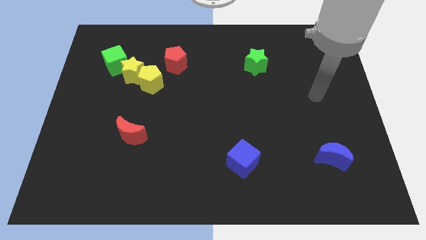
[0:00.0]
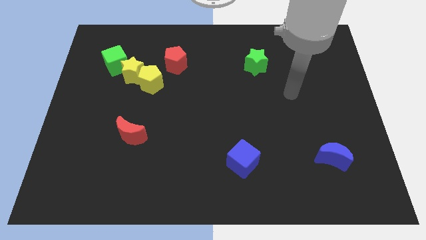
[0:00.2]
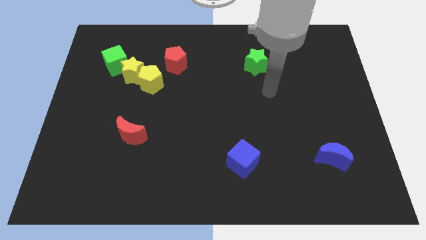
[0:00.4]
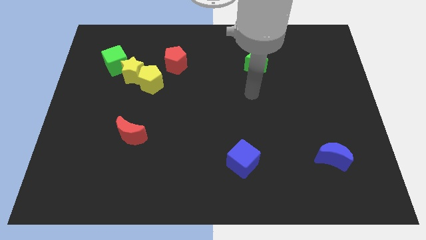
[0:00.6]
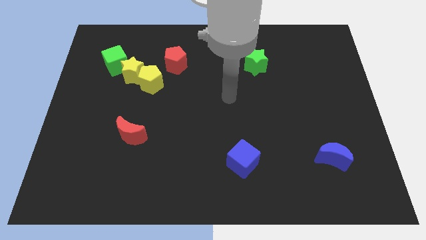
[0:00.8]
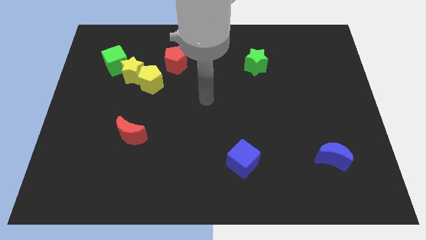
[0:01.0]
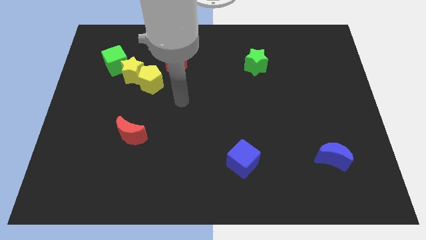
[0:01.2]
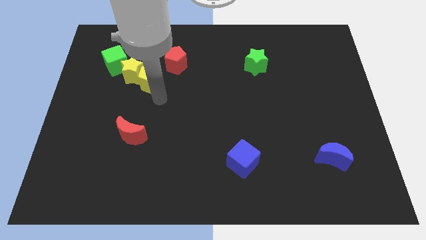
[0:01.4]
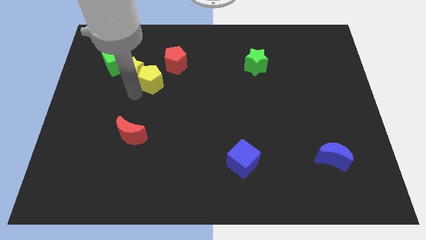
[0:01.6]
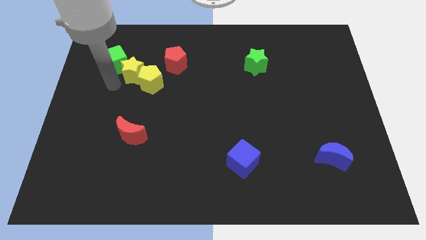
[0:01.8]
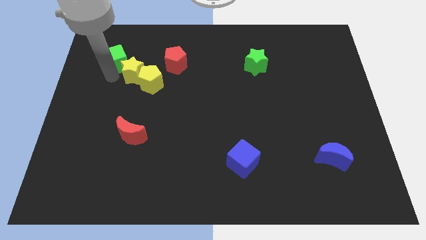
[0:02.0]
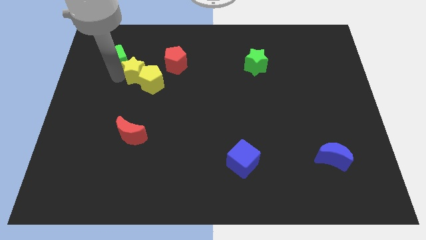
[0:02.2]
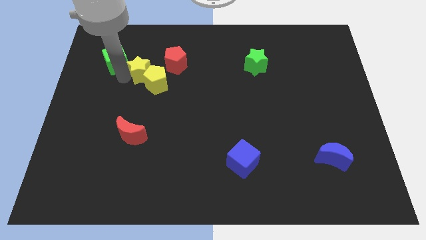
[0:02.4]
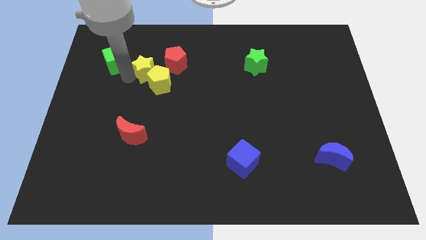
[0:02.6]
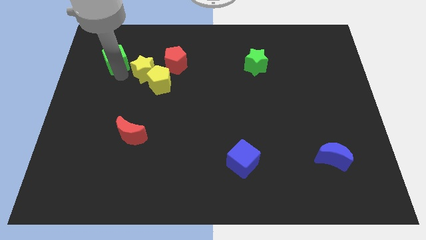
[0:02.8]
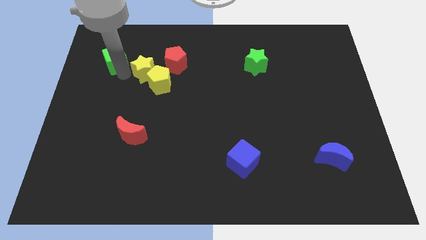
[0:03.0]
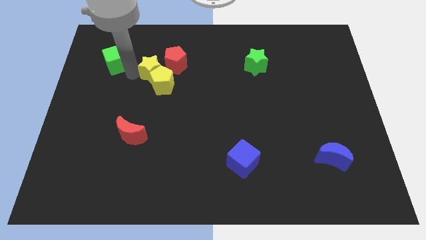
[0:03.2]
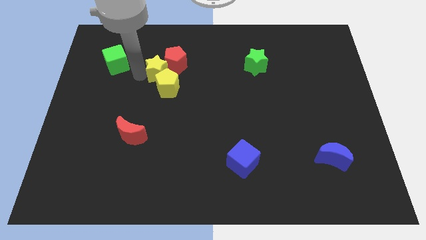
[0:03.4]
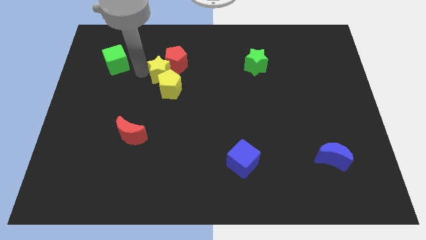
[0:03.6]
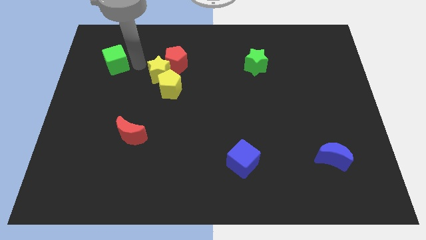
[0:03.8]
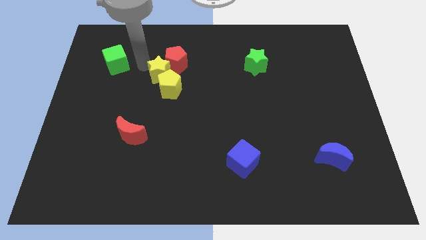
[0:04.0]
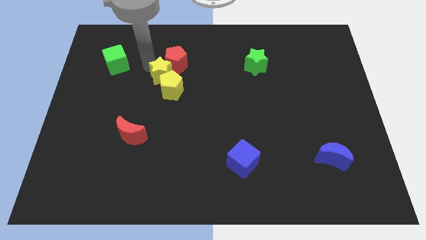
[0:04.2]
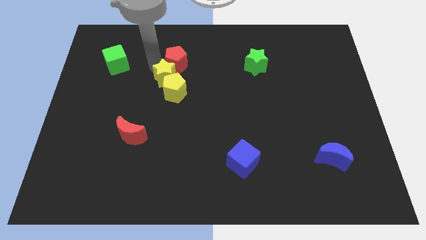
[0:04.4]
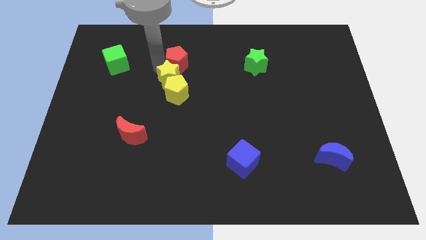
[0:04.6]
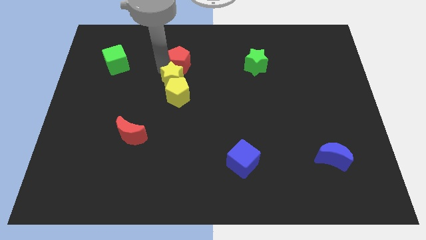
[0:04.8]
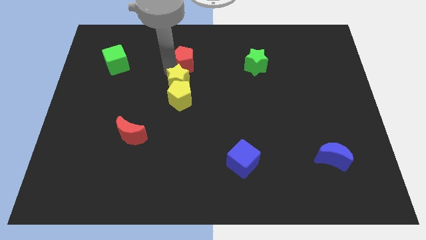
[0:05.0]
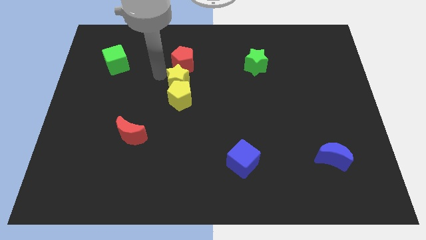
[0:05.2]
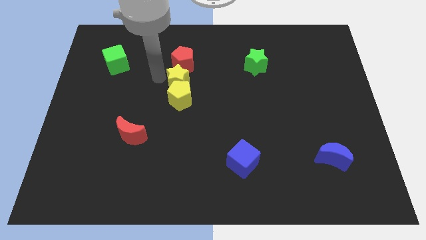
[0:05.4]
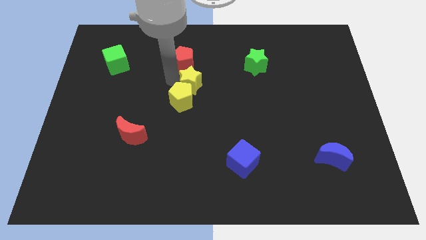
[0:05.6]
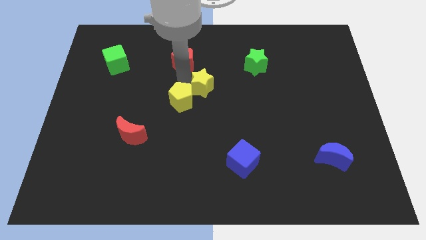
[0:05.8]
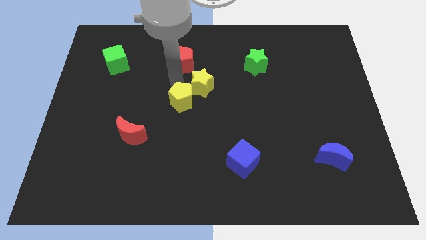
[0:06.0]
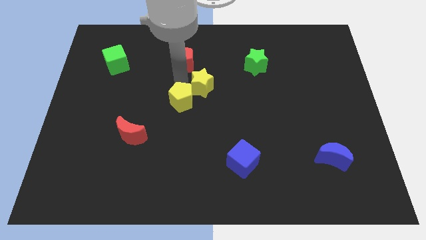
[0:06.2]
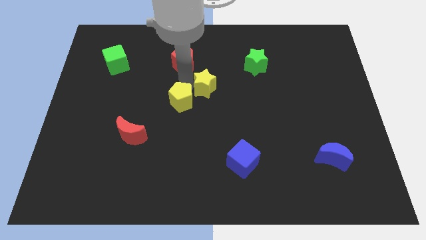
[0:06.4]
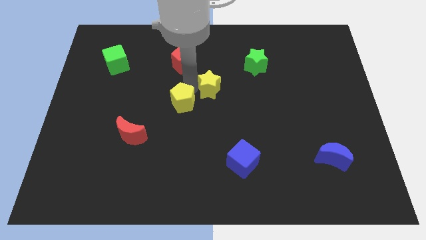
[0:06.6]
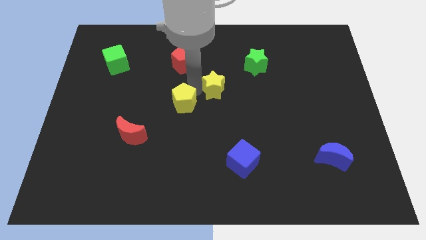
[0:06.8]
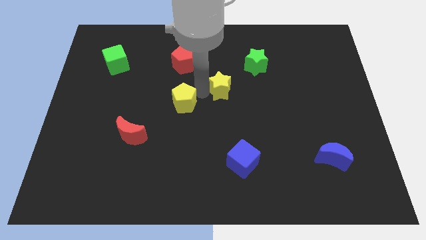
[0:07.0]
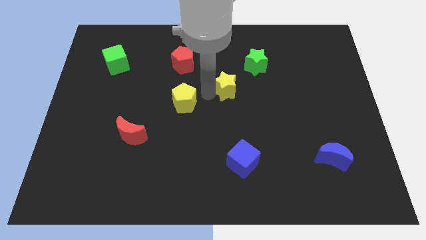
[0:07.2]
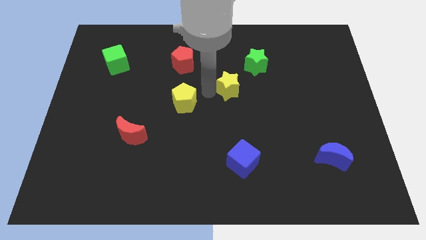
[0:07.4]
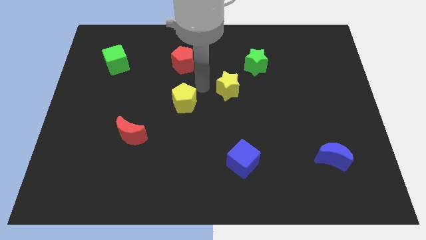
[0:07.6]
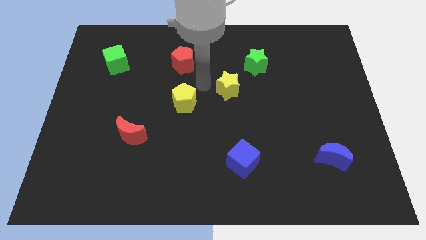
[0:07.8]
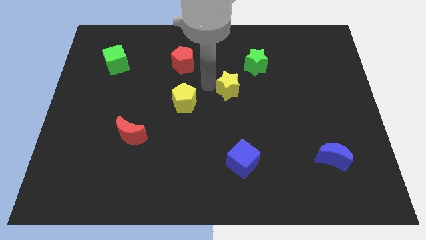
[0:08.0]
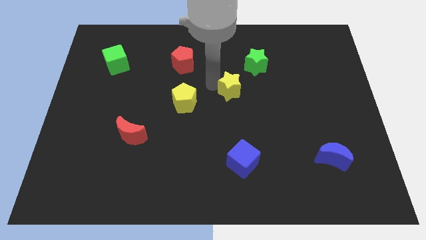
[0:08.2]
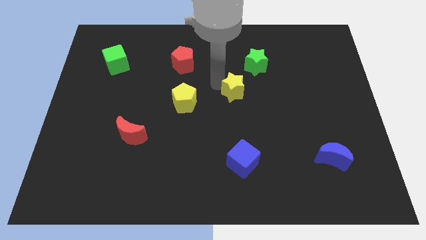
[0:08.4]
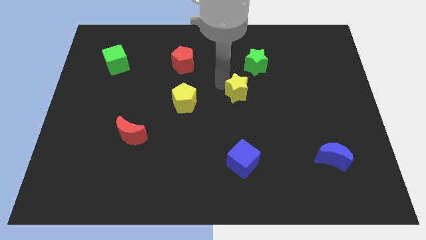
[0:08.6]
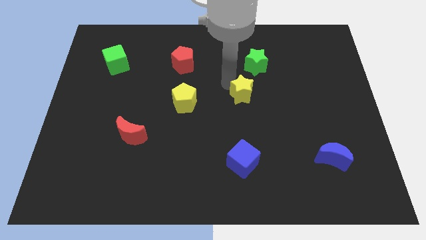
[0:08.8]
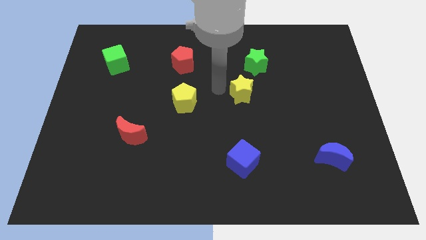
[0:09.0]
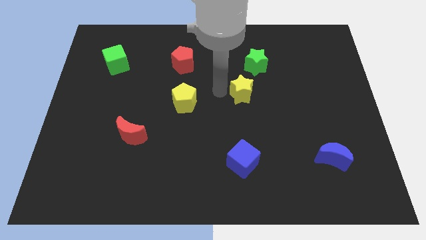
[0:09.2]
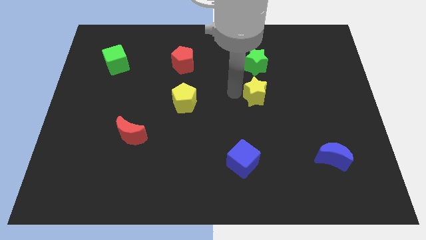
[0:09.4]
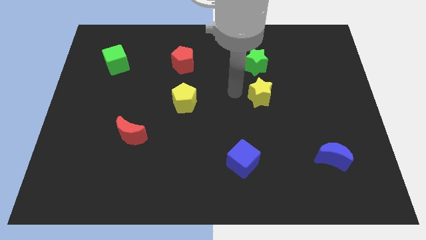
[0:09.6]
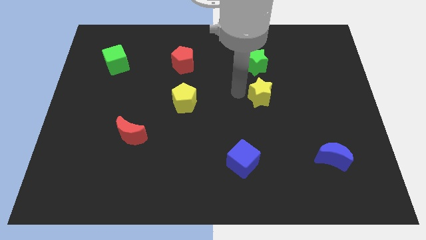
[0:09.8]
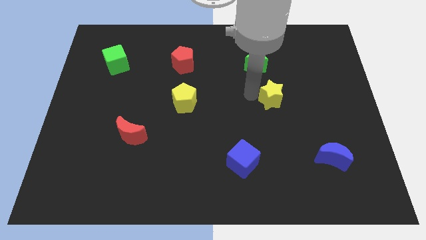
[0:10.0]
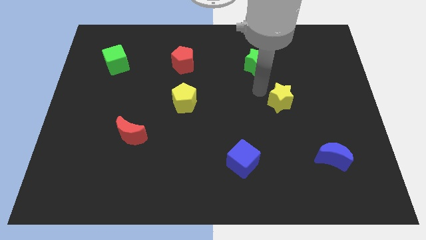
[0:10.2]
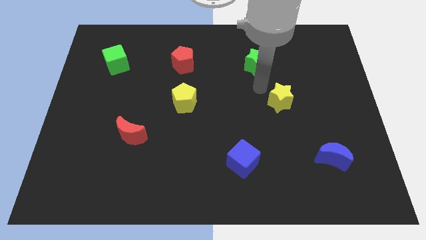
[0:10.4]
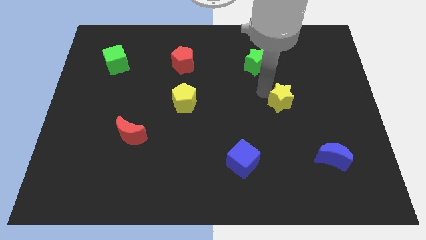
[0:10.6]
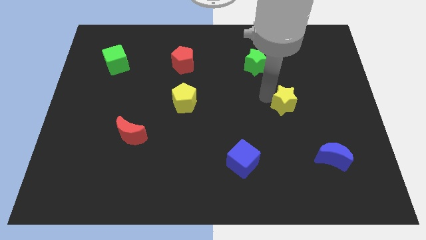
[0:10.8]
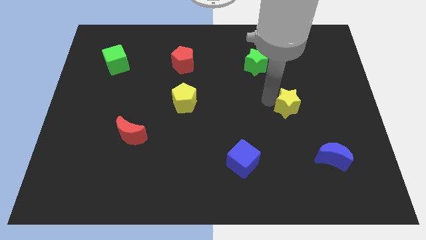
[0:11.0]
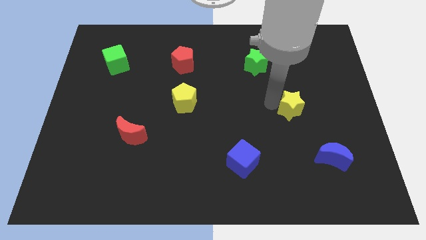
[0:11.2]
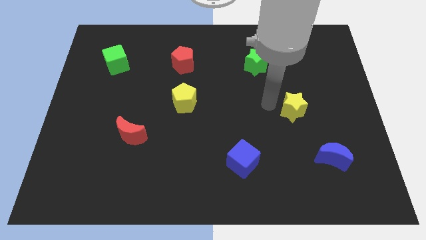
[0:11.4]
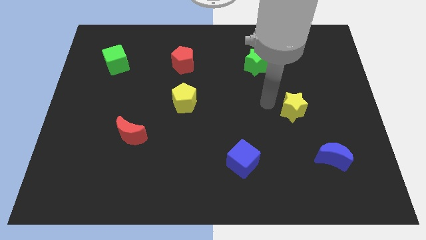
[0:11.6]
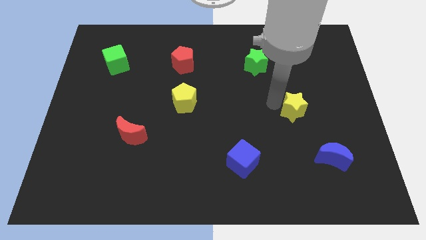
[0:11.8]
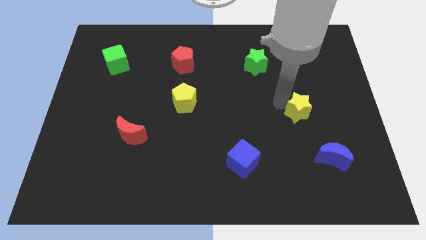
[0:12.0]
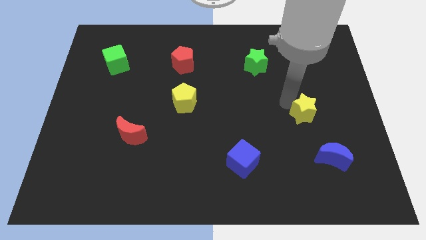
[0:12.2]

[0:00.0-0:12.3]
put the yellow star to the top of the blue moon

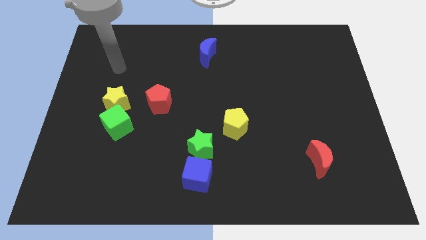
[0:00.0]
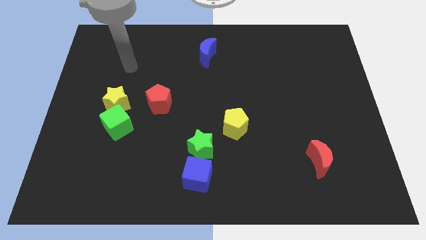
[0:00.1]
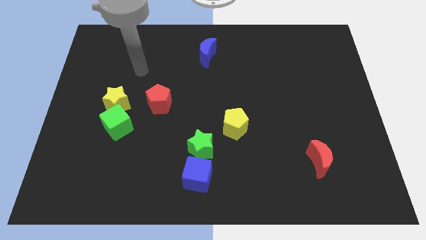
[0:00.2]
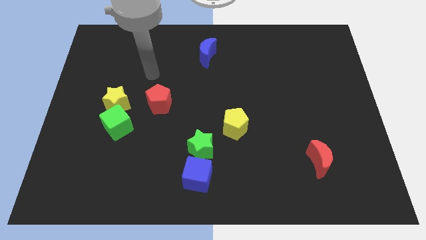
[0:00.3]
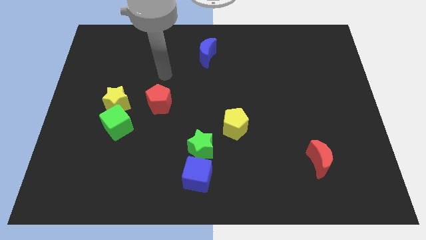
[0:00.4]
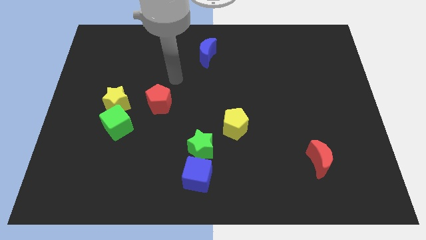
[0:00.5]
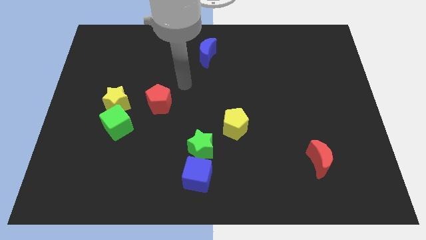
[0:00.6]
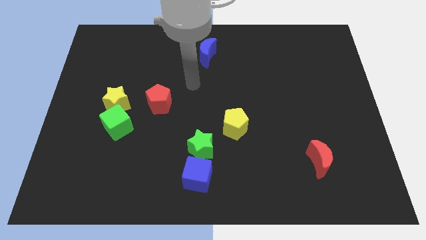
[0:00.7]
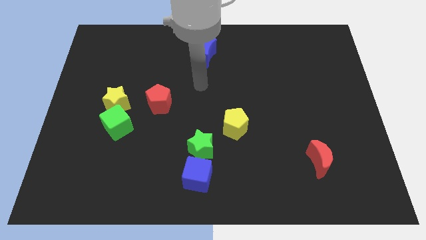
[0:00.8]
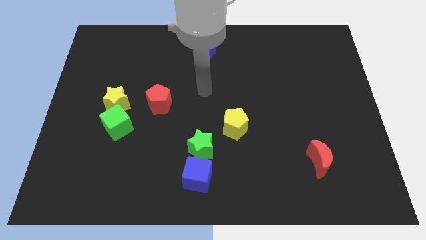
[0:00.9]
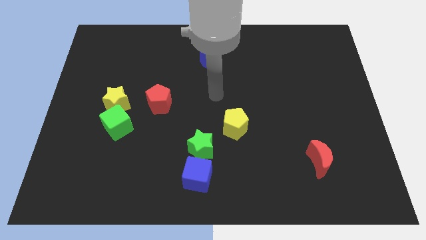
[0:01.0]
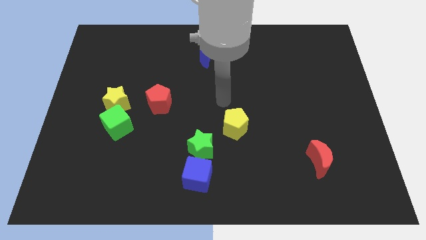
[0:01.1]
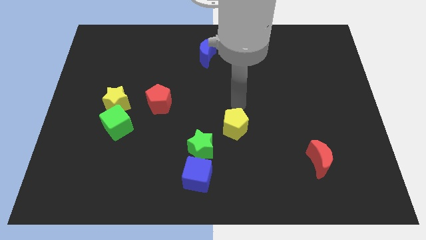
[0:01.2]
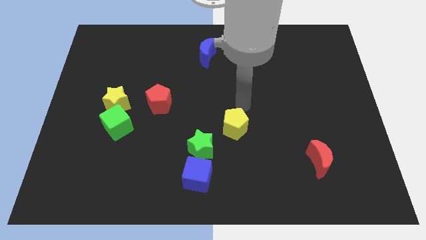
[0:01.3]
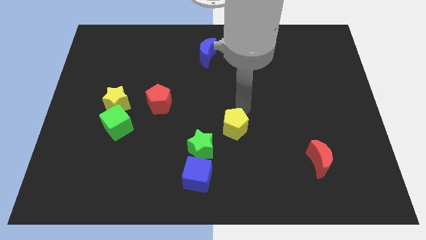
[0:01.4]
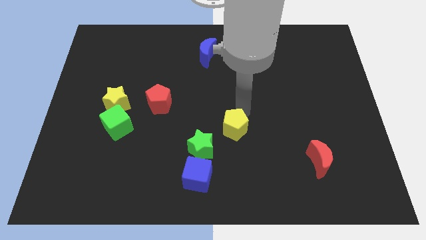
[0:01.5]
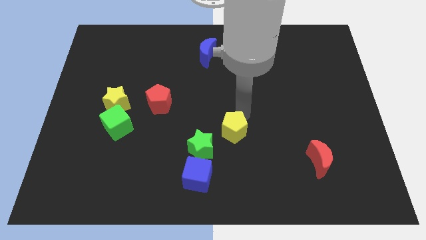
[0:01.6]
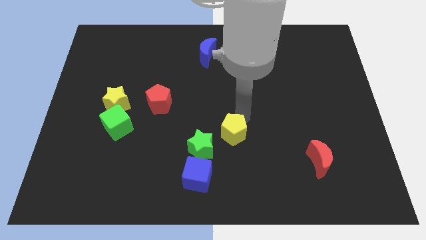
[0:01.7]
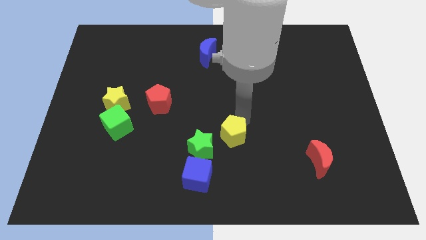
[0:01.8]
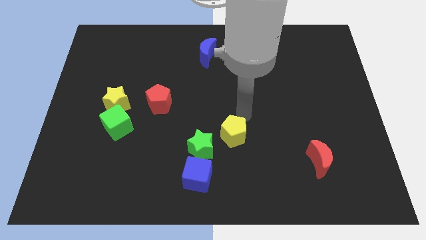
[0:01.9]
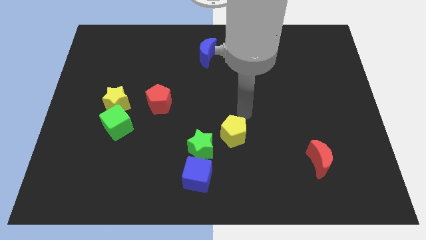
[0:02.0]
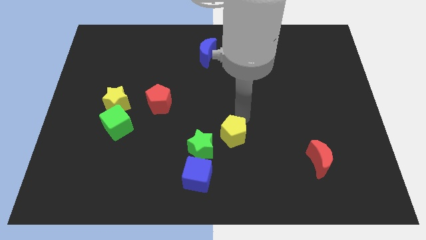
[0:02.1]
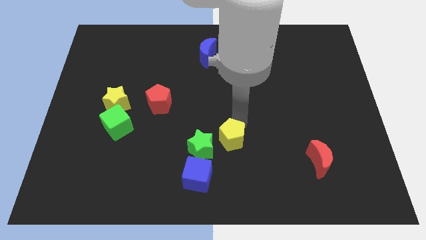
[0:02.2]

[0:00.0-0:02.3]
move the yellow pentagon to the top right of the blue cube
